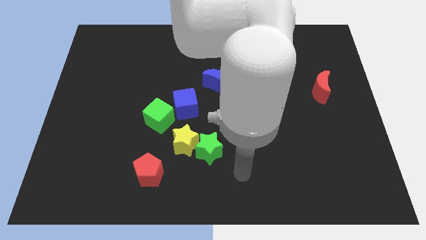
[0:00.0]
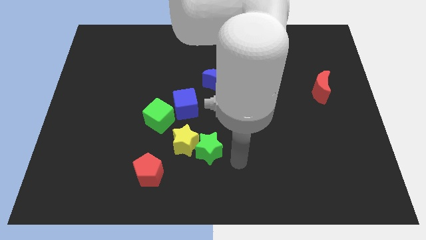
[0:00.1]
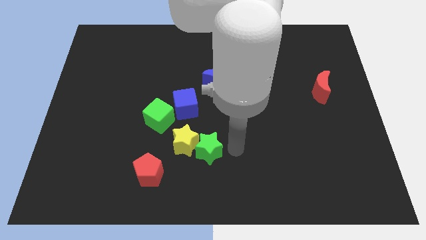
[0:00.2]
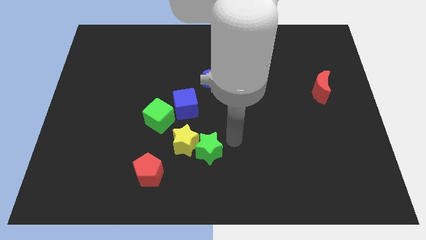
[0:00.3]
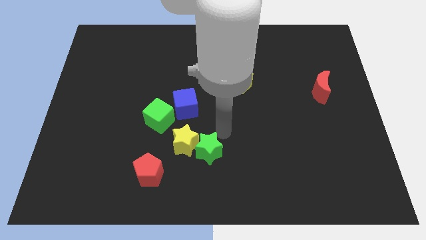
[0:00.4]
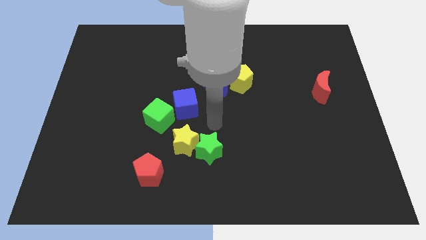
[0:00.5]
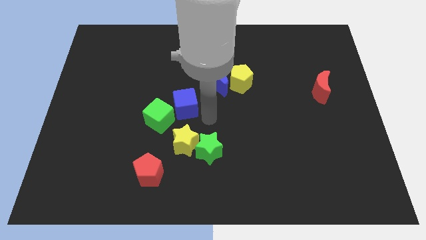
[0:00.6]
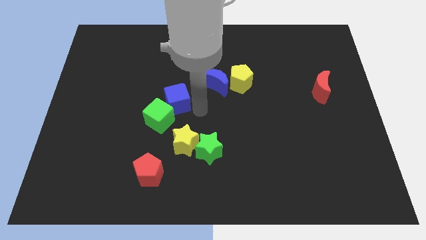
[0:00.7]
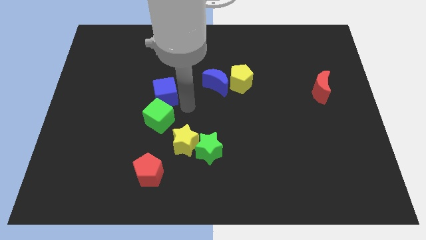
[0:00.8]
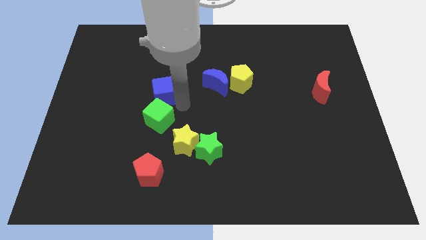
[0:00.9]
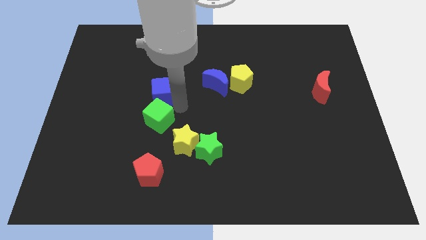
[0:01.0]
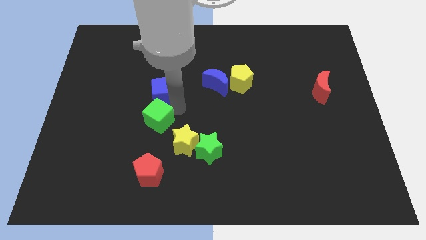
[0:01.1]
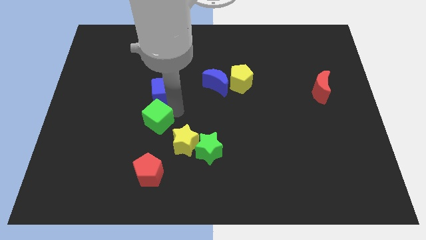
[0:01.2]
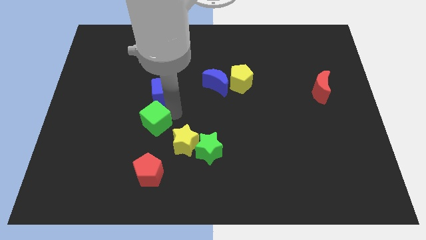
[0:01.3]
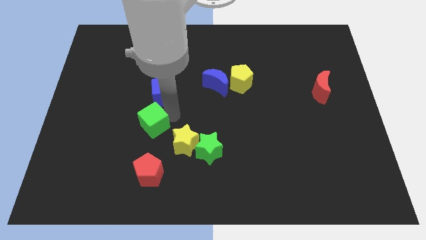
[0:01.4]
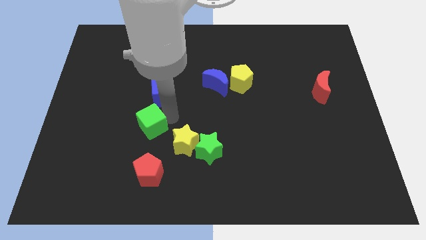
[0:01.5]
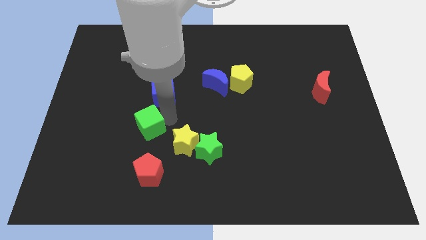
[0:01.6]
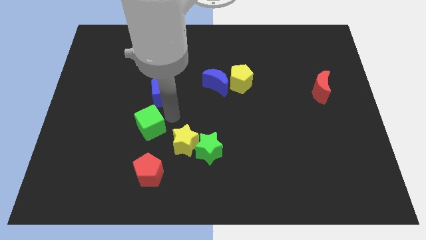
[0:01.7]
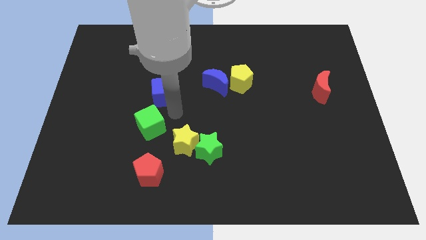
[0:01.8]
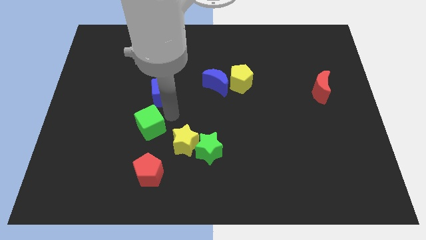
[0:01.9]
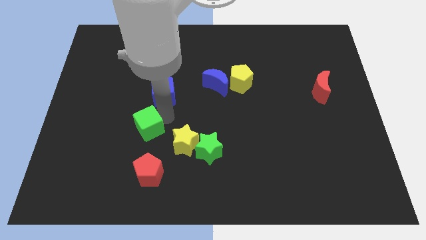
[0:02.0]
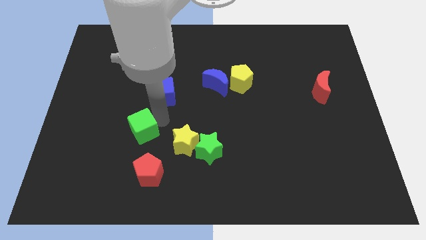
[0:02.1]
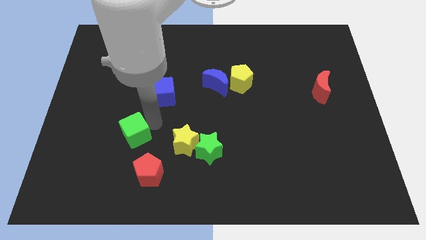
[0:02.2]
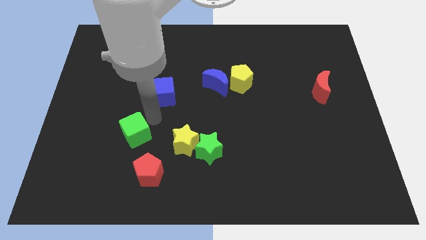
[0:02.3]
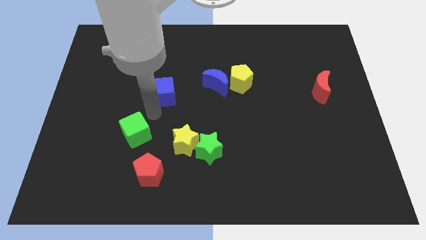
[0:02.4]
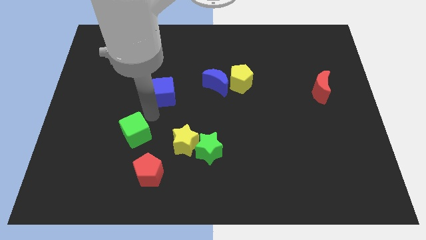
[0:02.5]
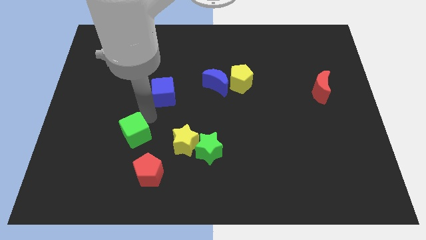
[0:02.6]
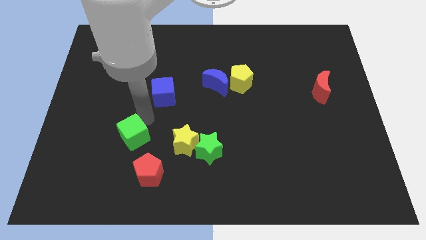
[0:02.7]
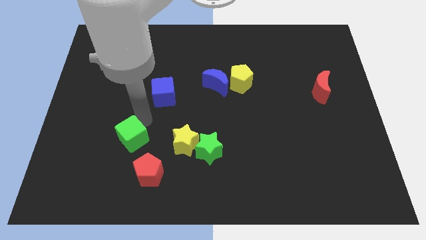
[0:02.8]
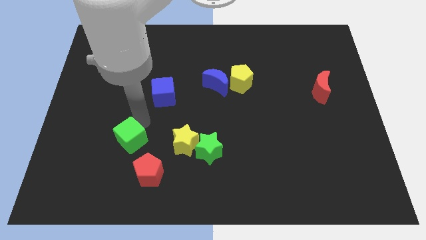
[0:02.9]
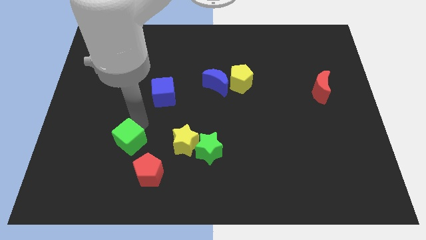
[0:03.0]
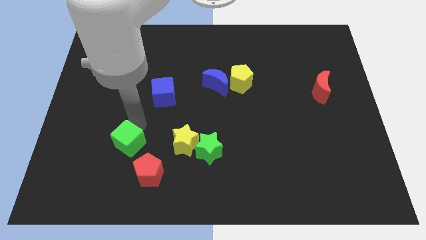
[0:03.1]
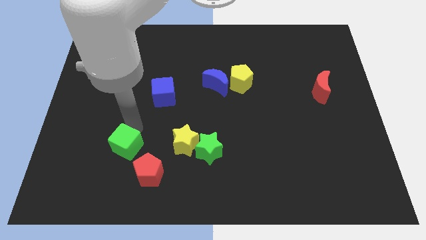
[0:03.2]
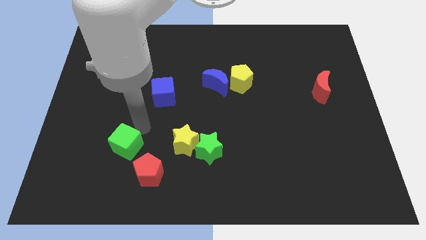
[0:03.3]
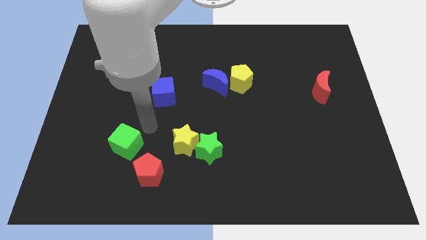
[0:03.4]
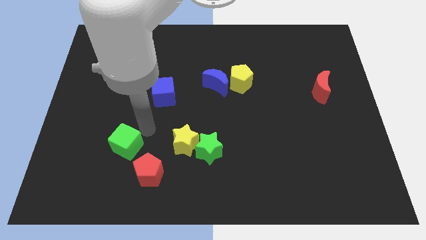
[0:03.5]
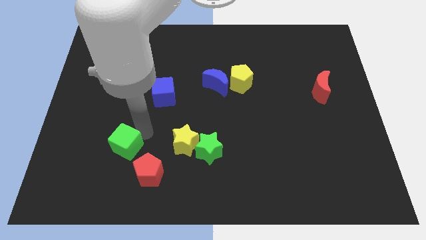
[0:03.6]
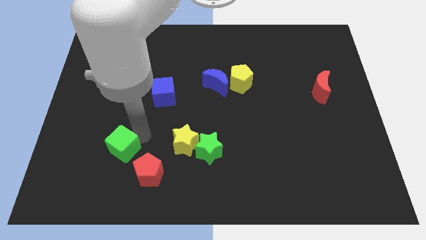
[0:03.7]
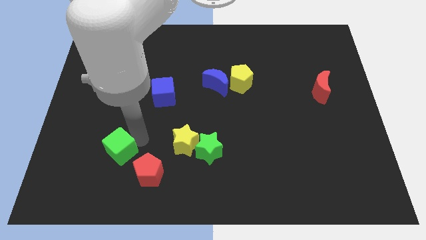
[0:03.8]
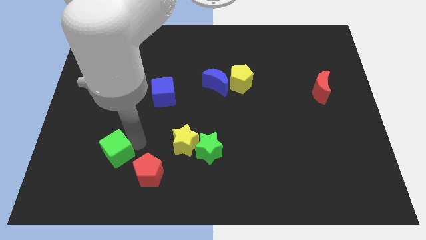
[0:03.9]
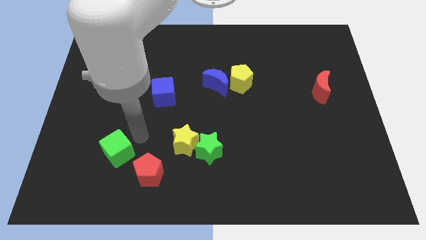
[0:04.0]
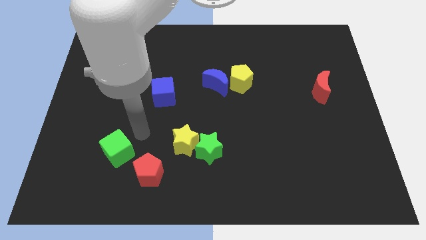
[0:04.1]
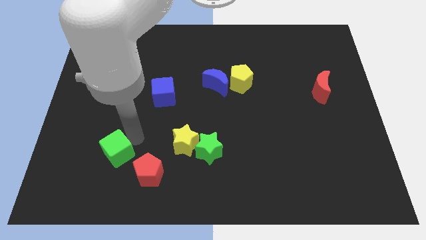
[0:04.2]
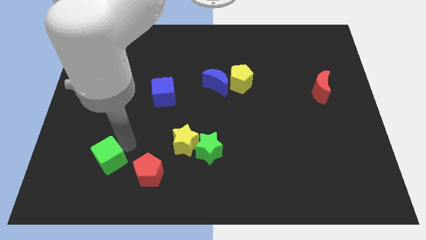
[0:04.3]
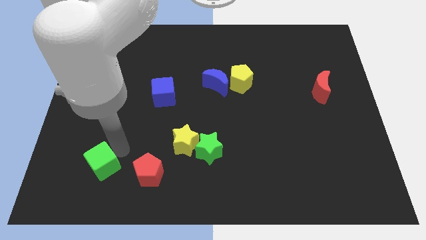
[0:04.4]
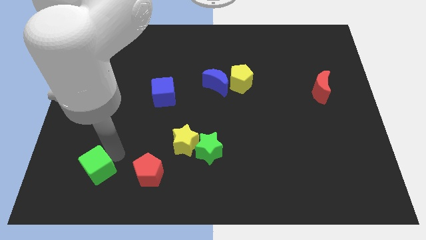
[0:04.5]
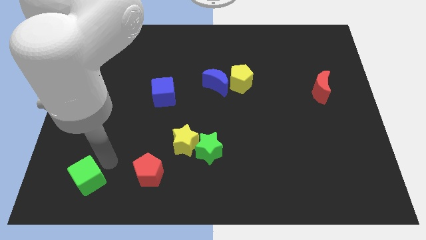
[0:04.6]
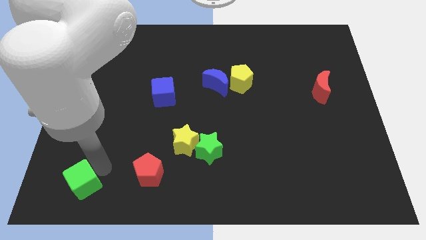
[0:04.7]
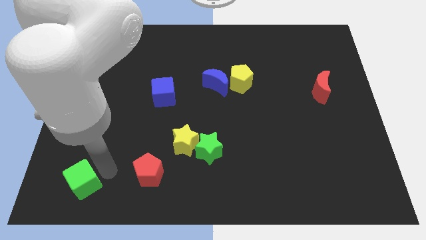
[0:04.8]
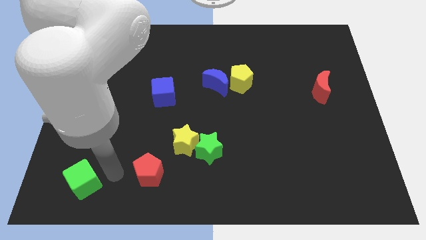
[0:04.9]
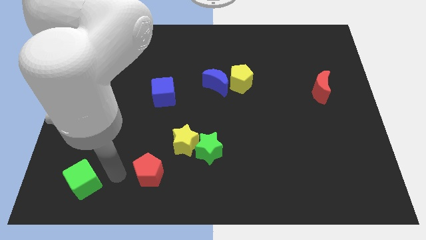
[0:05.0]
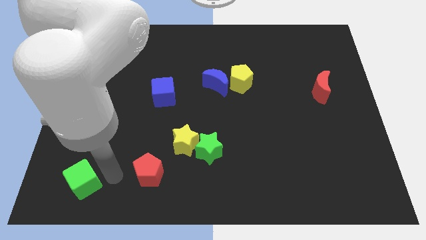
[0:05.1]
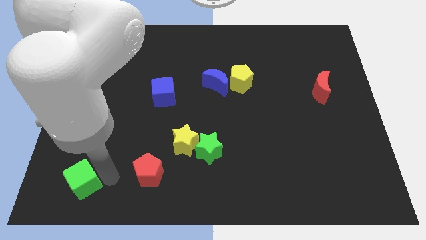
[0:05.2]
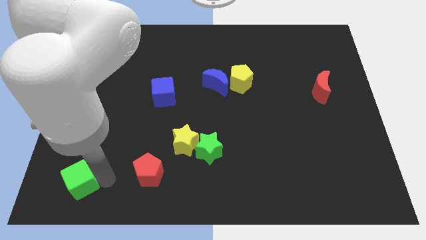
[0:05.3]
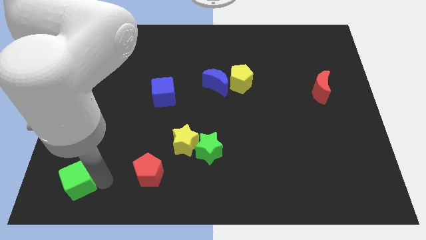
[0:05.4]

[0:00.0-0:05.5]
push the green cube to the bottom left of the board

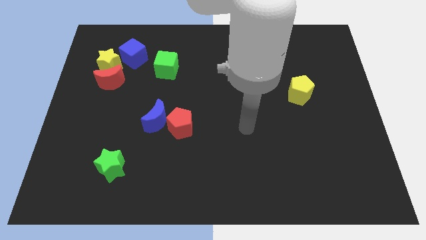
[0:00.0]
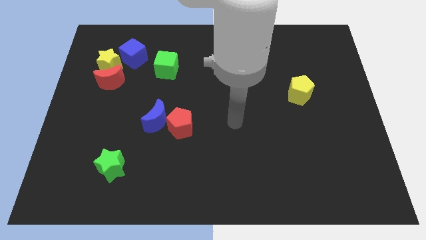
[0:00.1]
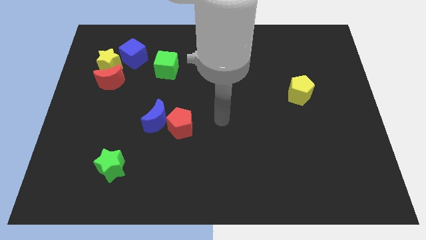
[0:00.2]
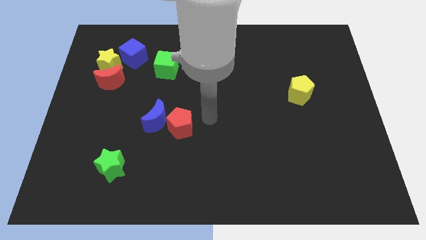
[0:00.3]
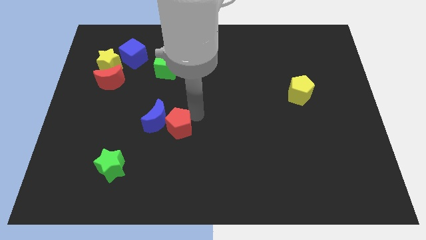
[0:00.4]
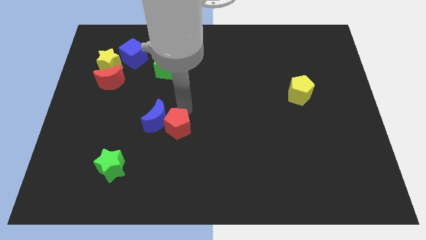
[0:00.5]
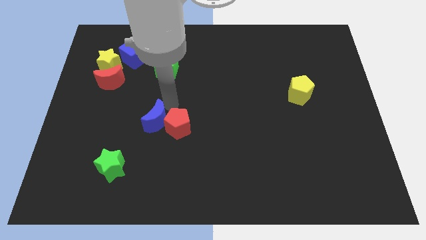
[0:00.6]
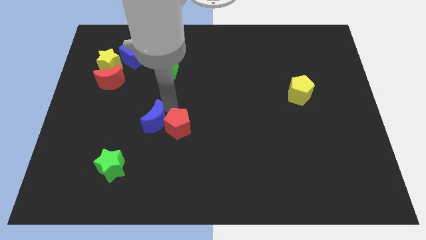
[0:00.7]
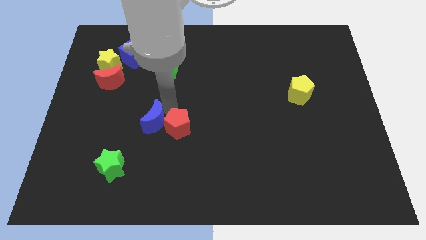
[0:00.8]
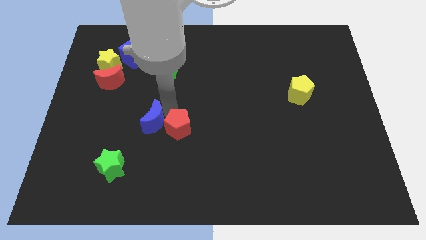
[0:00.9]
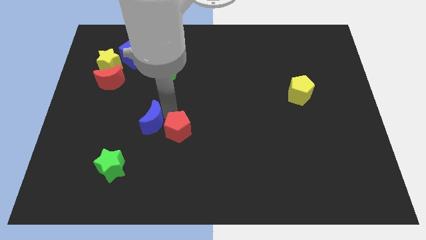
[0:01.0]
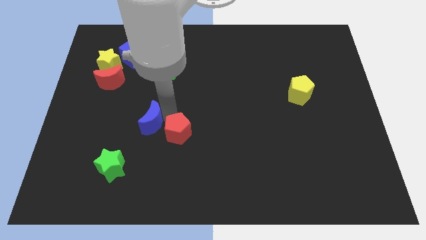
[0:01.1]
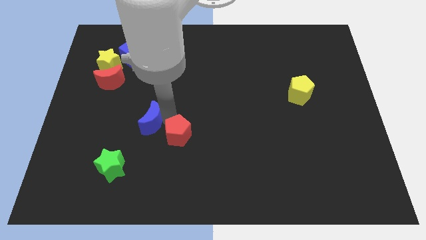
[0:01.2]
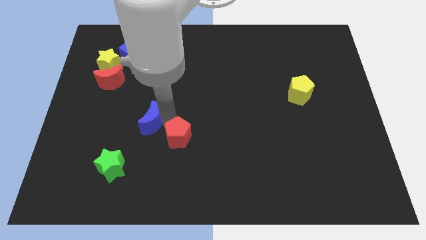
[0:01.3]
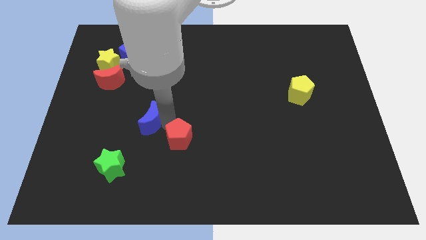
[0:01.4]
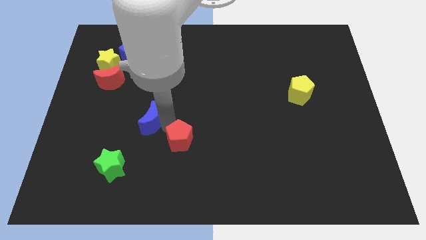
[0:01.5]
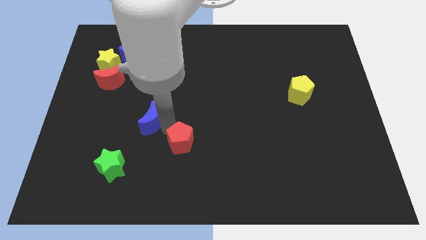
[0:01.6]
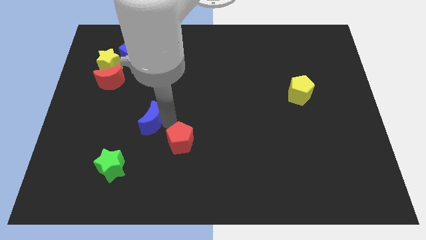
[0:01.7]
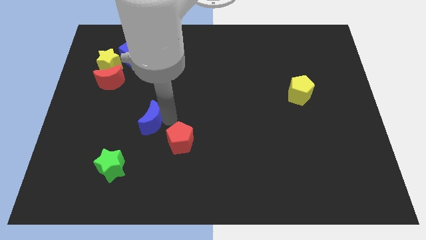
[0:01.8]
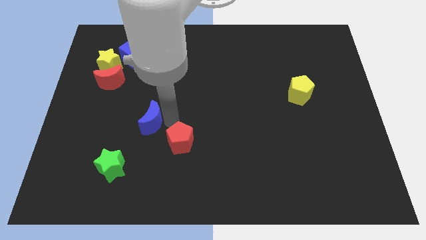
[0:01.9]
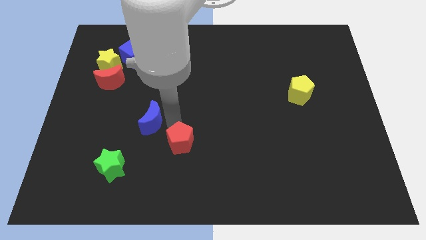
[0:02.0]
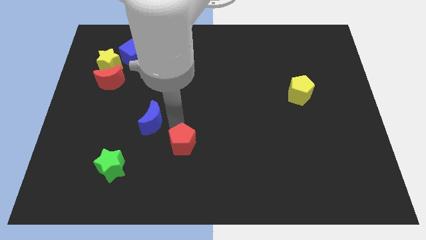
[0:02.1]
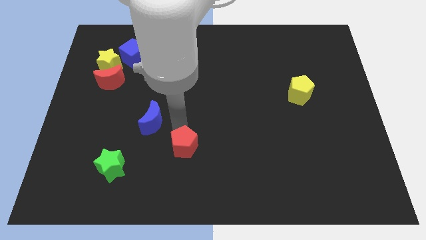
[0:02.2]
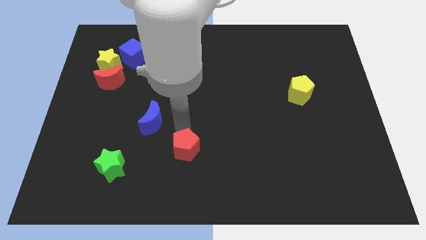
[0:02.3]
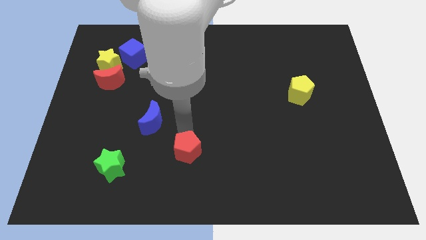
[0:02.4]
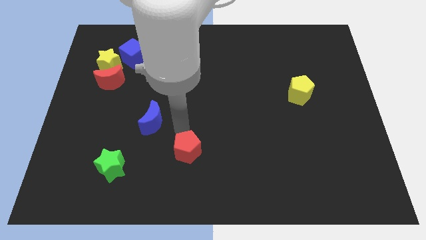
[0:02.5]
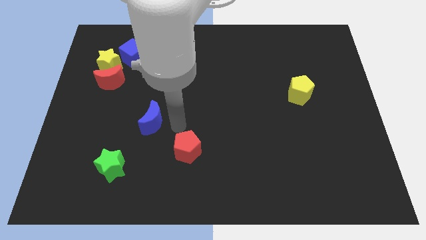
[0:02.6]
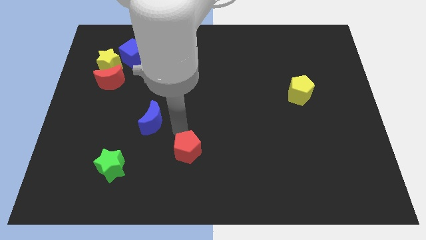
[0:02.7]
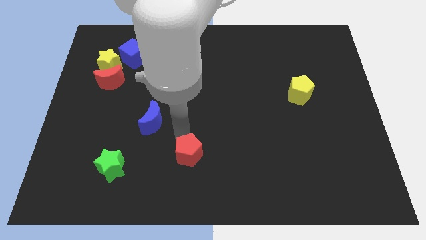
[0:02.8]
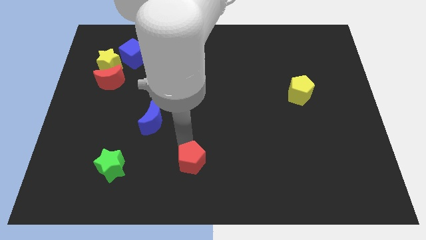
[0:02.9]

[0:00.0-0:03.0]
put the red pentagon to the bottom
